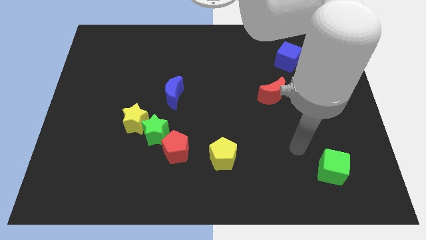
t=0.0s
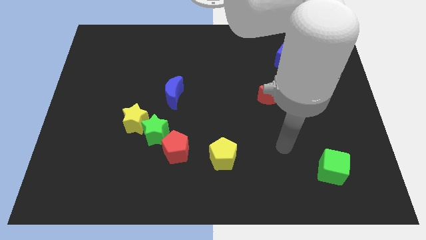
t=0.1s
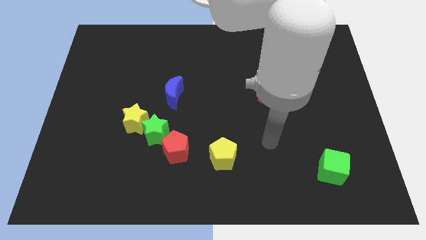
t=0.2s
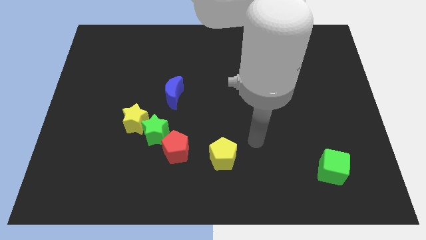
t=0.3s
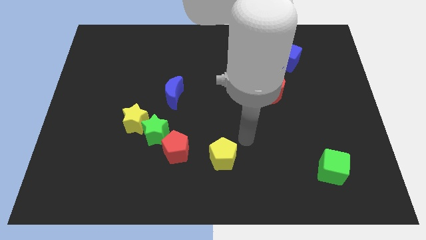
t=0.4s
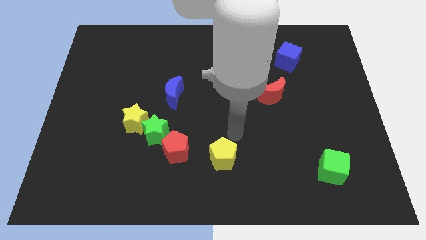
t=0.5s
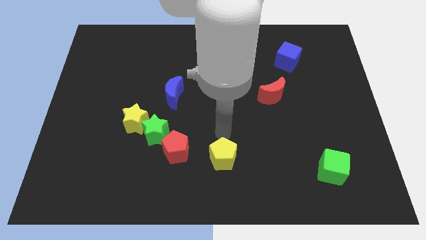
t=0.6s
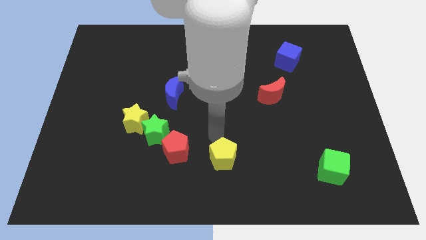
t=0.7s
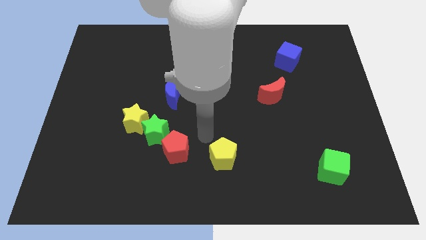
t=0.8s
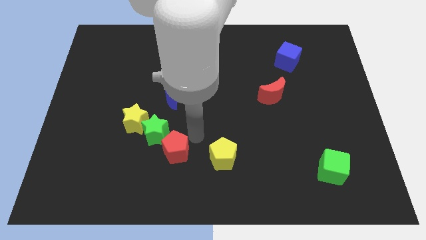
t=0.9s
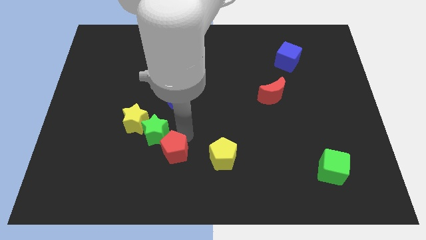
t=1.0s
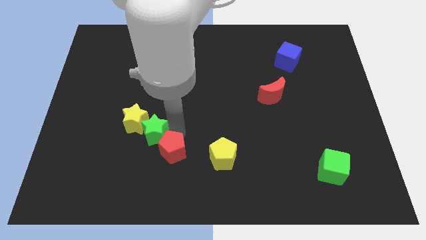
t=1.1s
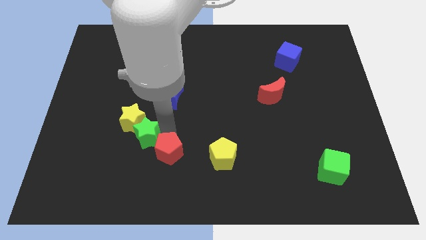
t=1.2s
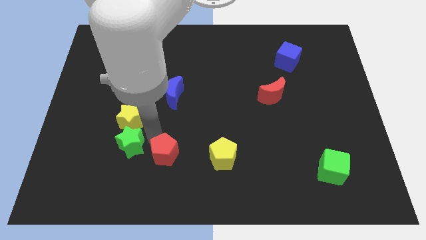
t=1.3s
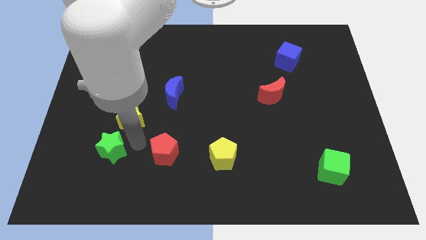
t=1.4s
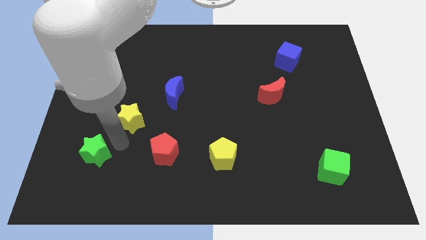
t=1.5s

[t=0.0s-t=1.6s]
move the yellow star away from the green star

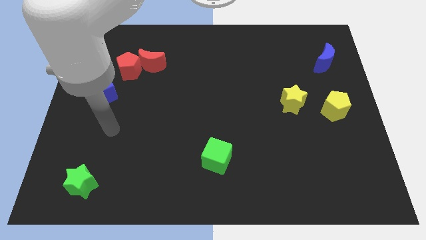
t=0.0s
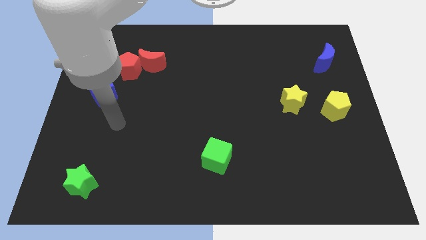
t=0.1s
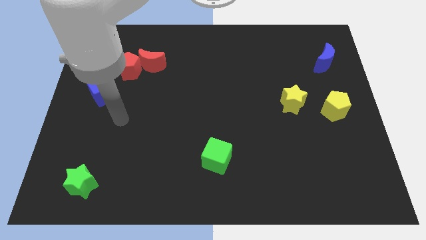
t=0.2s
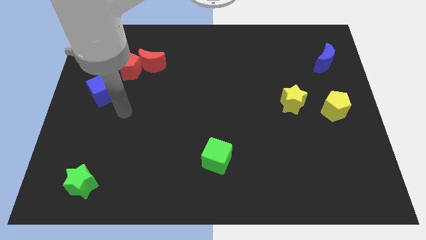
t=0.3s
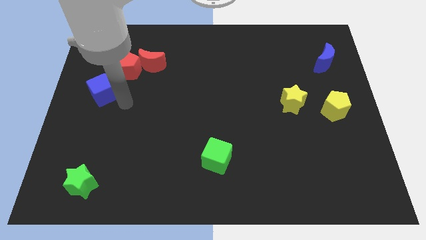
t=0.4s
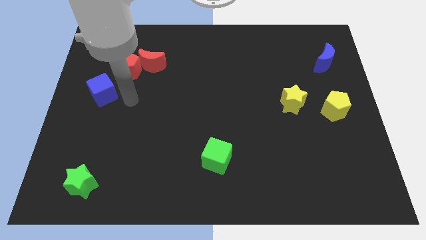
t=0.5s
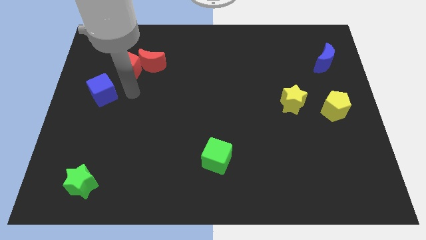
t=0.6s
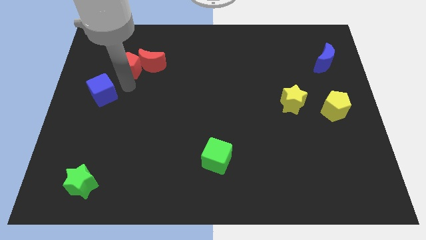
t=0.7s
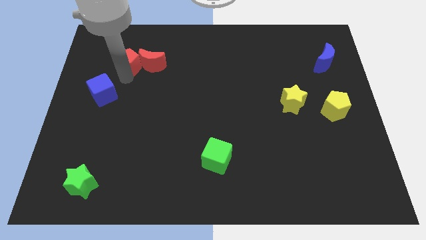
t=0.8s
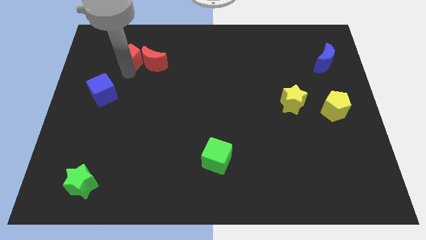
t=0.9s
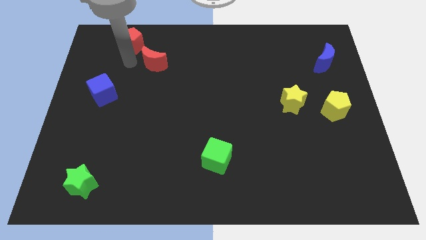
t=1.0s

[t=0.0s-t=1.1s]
move the red moon away from the red pentagon

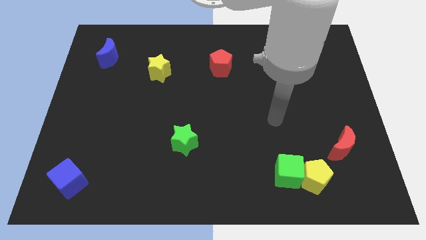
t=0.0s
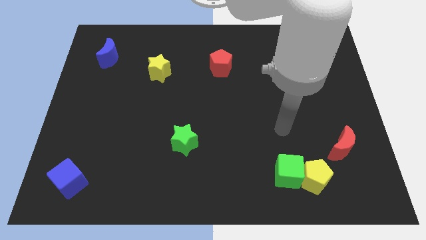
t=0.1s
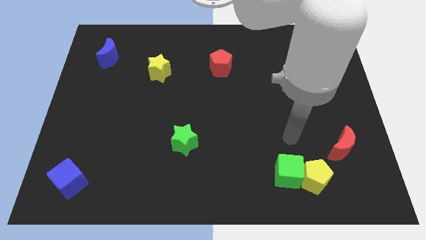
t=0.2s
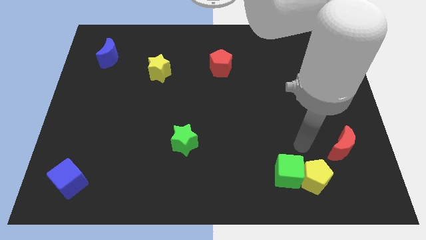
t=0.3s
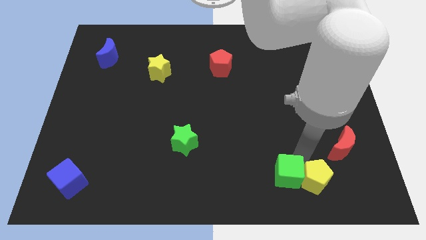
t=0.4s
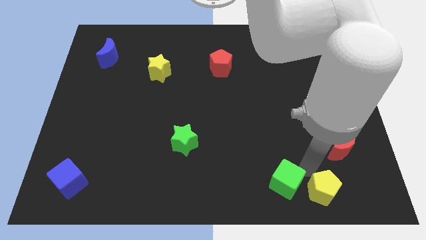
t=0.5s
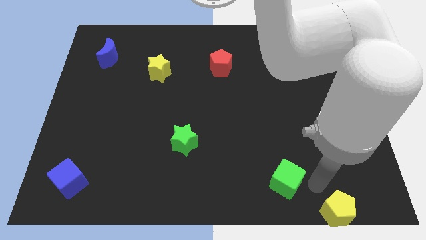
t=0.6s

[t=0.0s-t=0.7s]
pull the green cube apart from the yellow pentagon

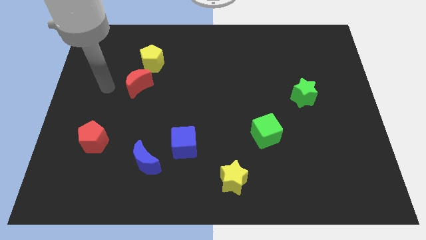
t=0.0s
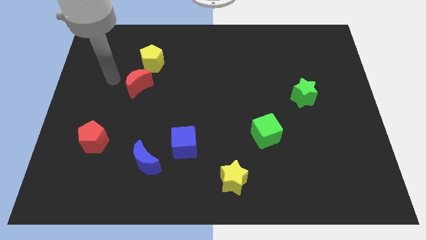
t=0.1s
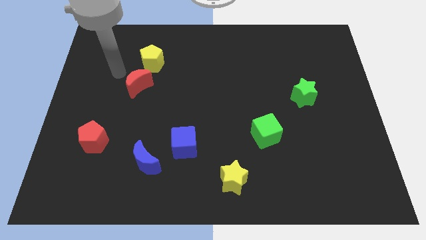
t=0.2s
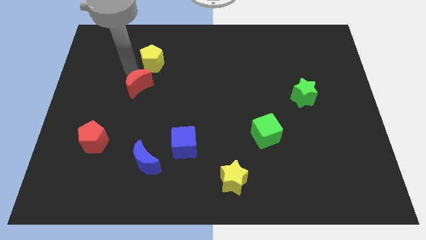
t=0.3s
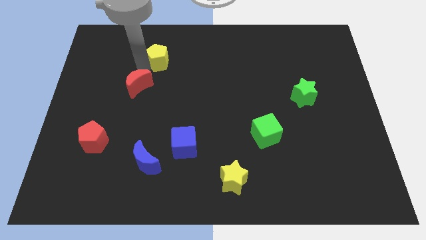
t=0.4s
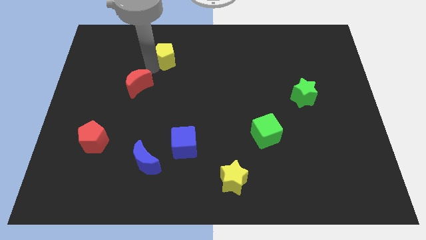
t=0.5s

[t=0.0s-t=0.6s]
pull the red moon apart from the yellow pentagon

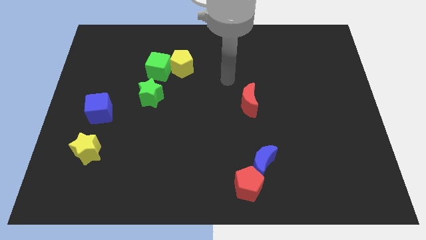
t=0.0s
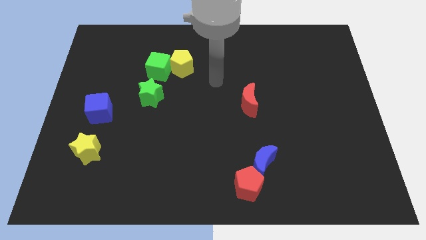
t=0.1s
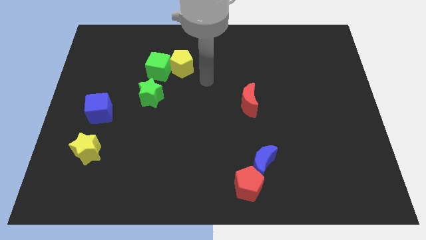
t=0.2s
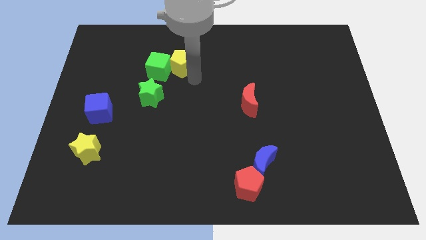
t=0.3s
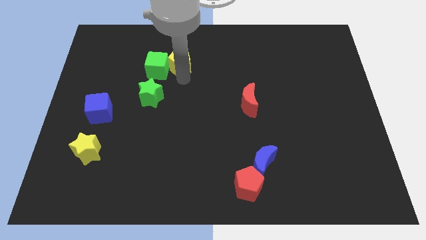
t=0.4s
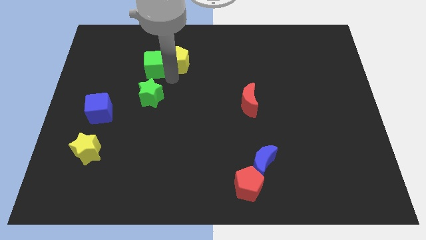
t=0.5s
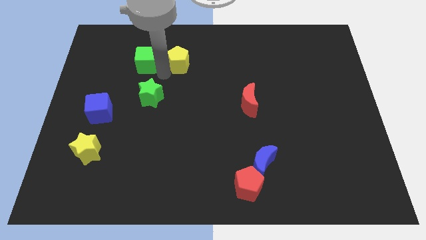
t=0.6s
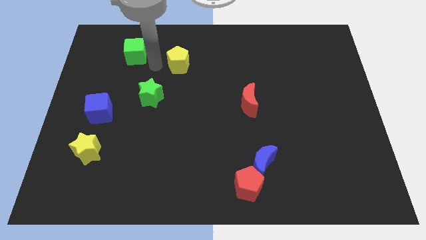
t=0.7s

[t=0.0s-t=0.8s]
move the yellow pentagon away from the green cube

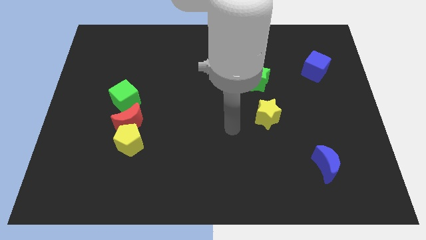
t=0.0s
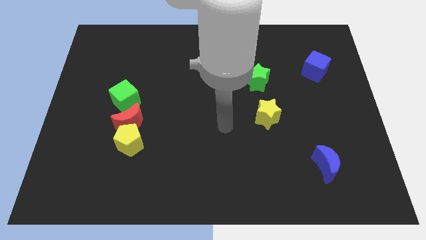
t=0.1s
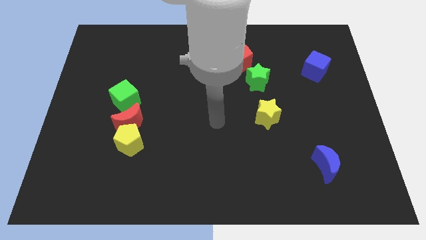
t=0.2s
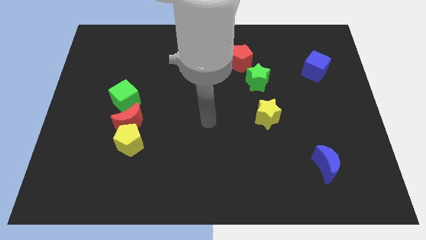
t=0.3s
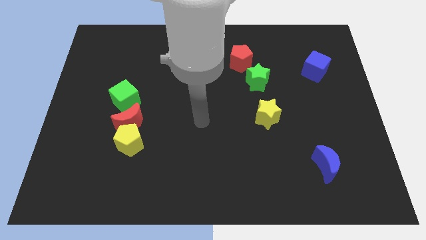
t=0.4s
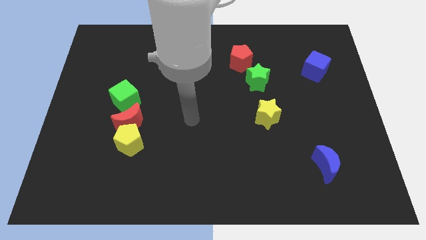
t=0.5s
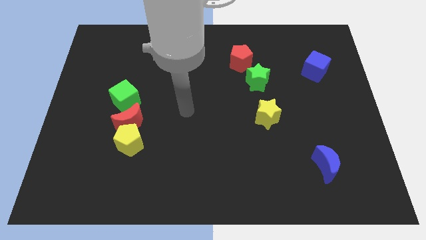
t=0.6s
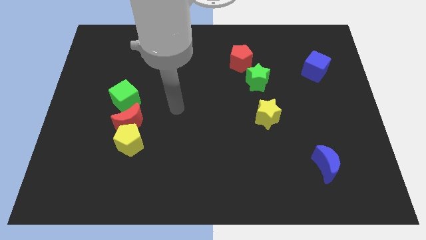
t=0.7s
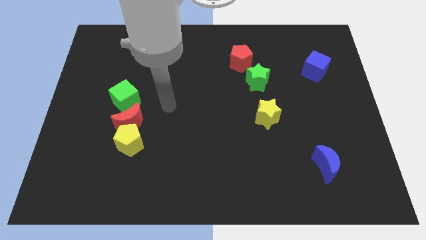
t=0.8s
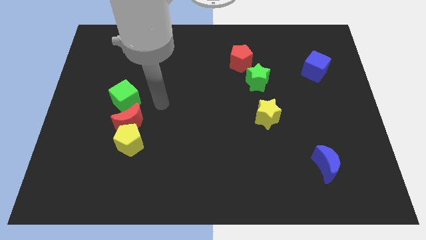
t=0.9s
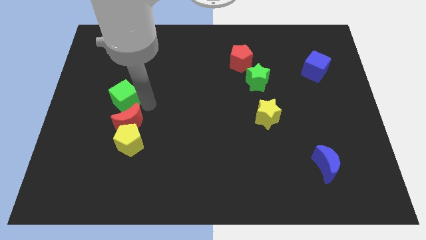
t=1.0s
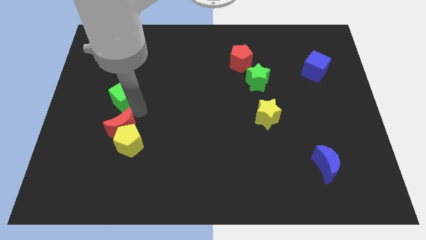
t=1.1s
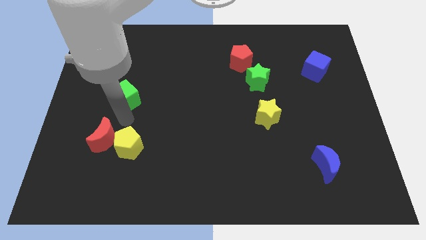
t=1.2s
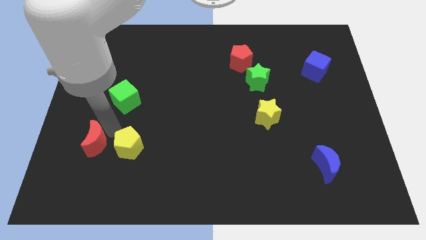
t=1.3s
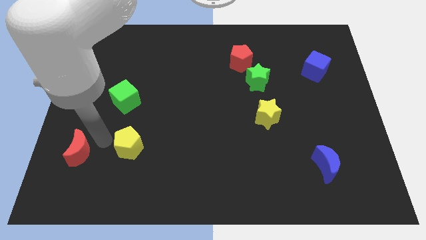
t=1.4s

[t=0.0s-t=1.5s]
pull the yellow pentagon apart from the red moon

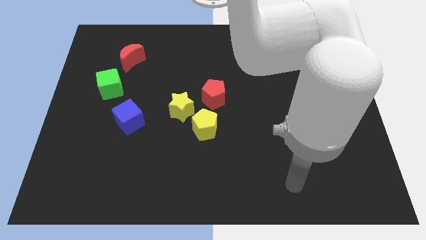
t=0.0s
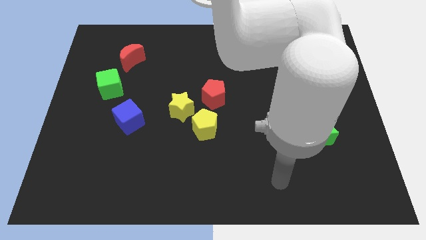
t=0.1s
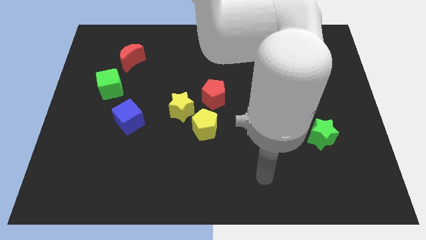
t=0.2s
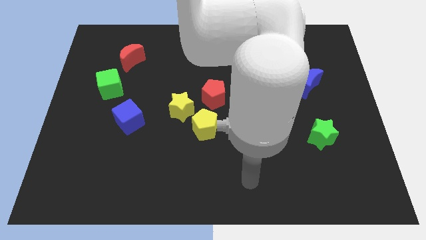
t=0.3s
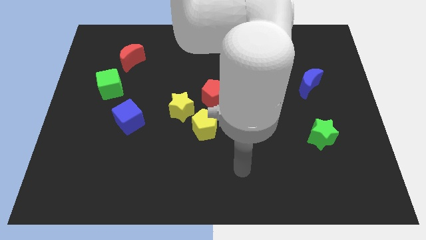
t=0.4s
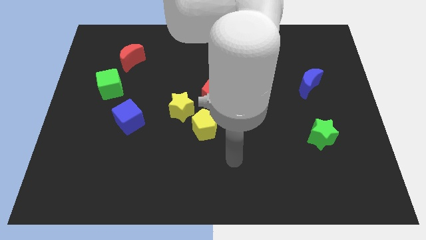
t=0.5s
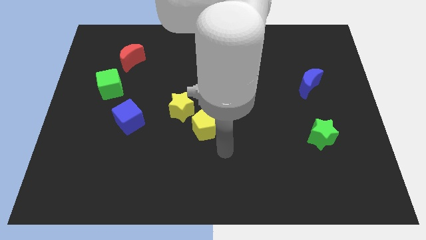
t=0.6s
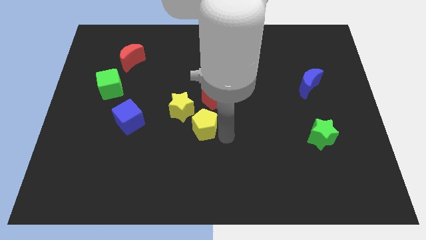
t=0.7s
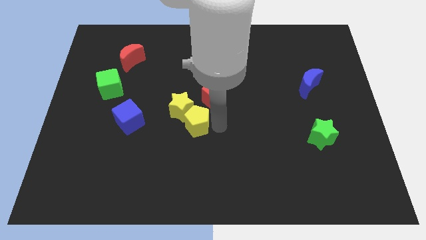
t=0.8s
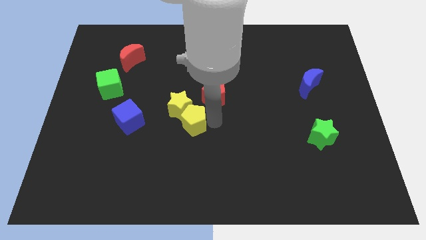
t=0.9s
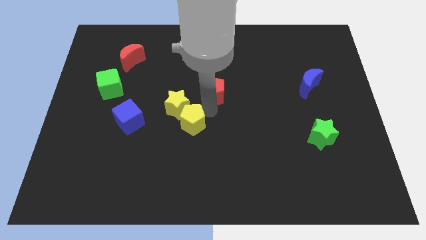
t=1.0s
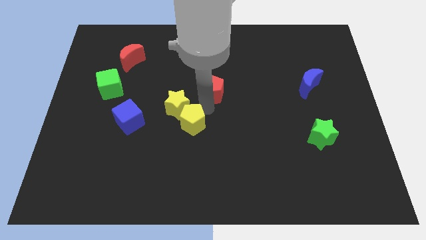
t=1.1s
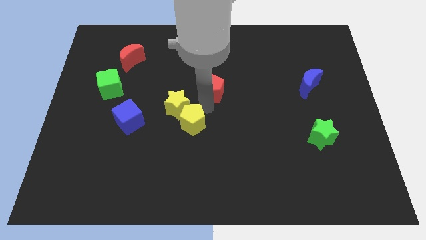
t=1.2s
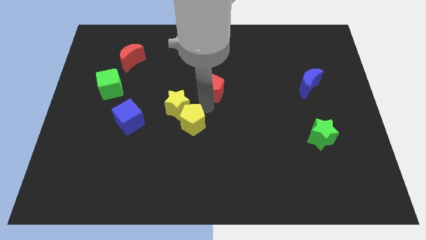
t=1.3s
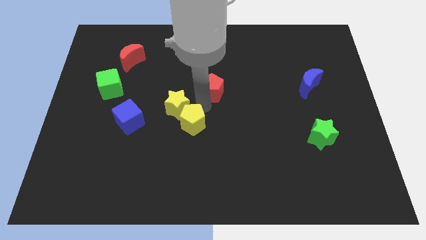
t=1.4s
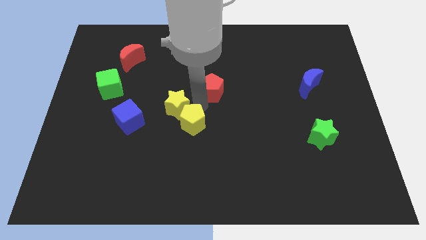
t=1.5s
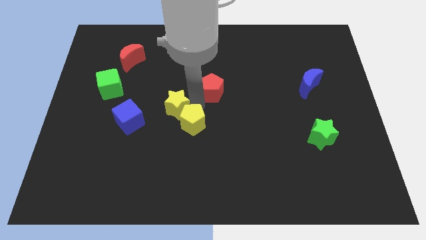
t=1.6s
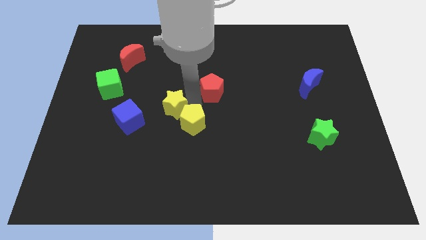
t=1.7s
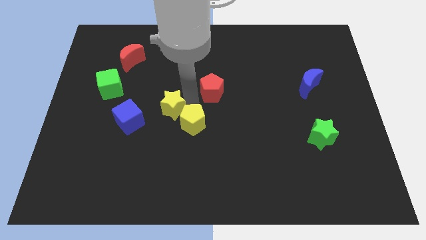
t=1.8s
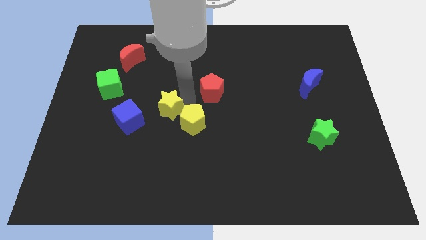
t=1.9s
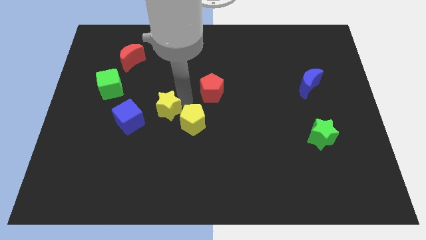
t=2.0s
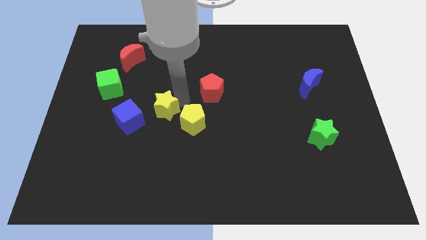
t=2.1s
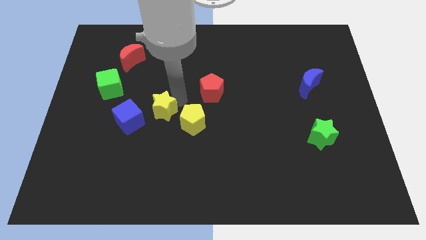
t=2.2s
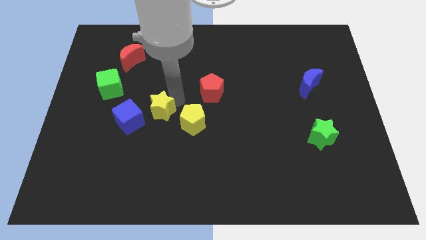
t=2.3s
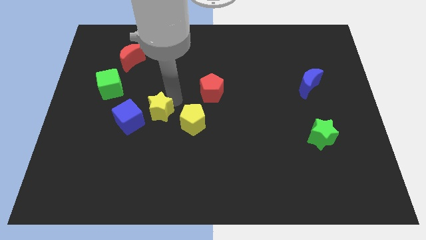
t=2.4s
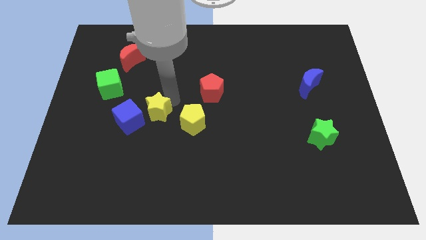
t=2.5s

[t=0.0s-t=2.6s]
separate the yellow star from the yellow pentagon and red pentagon

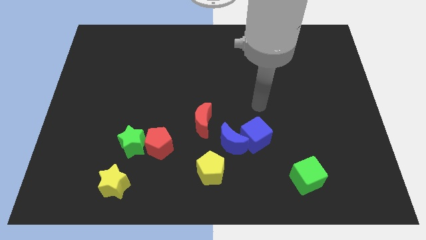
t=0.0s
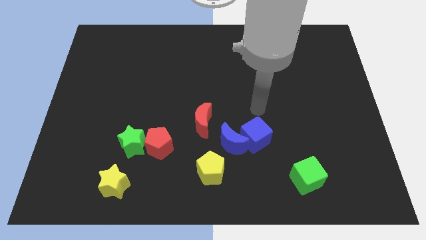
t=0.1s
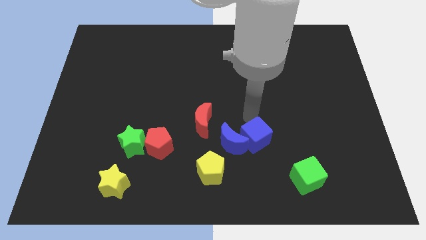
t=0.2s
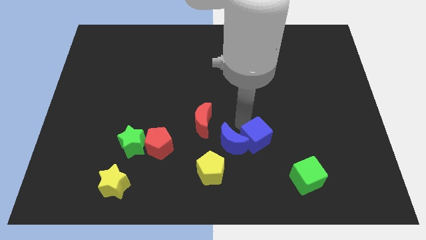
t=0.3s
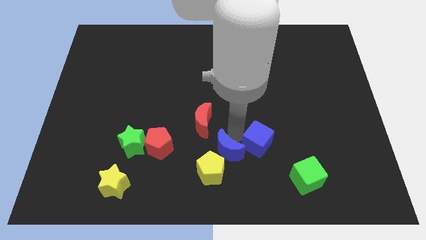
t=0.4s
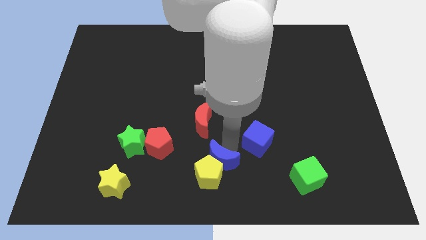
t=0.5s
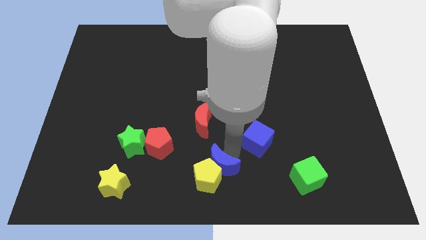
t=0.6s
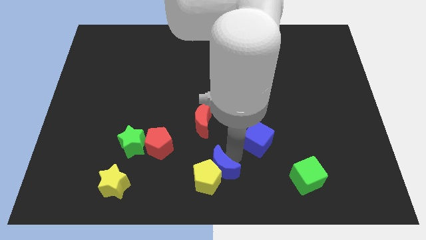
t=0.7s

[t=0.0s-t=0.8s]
pull the blue cube apart from the blue moon
